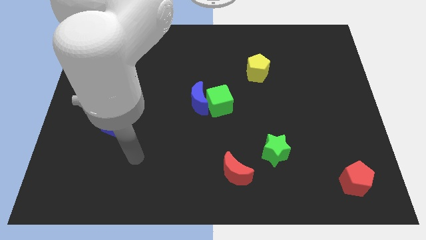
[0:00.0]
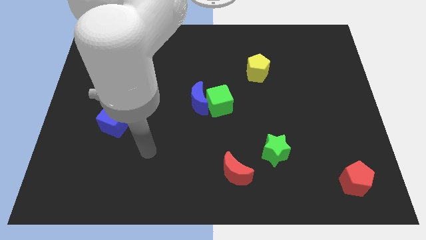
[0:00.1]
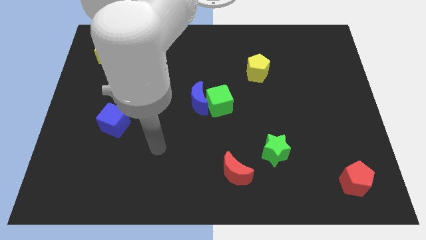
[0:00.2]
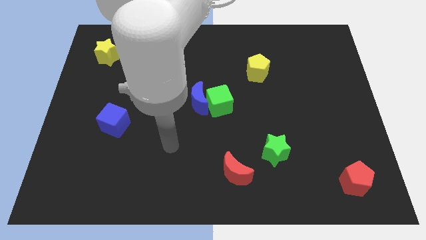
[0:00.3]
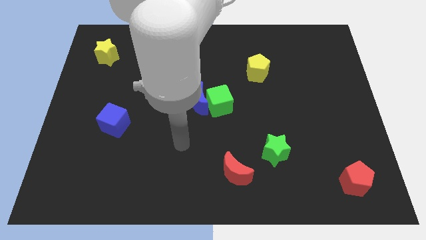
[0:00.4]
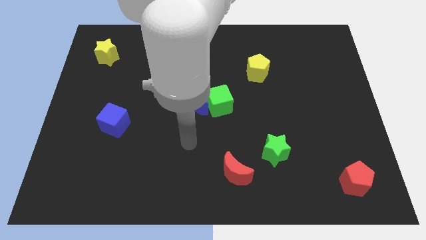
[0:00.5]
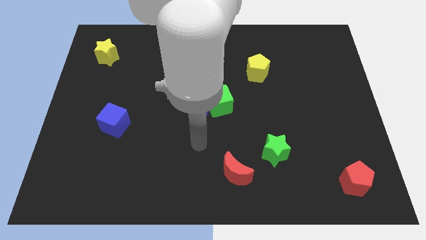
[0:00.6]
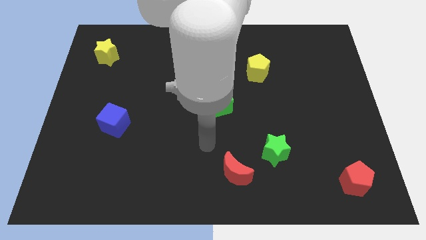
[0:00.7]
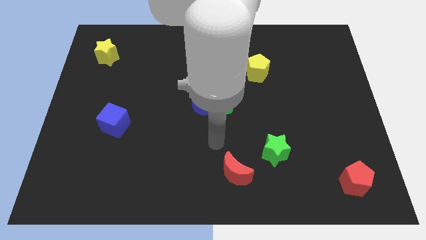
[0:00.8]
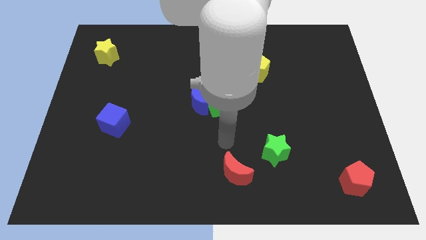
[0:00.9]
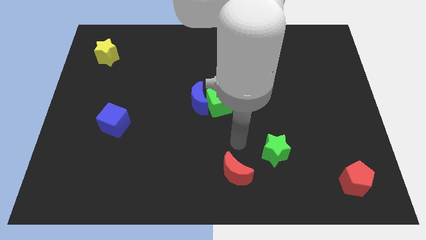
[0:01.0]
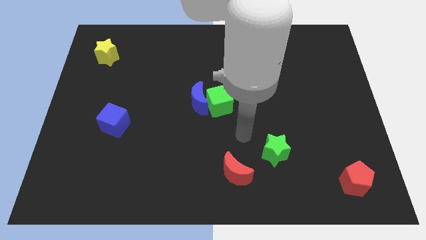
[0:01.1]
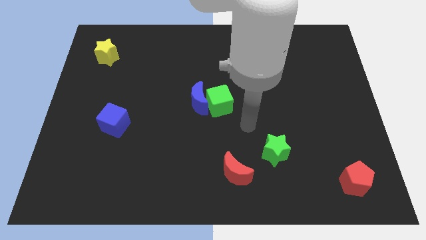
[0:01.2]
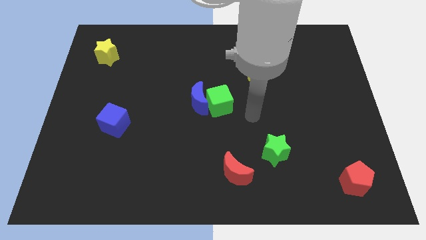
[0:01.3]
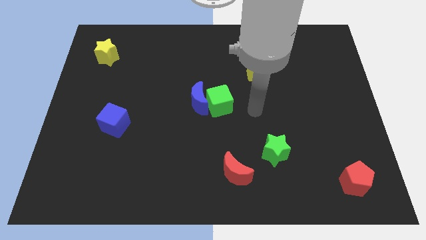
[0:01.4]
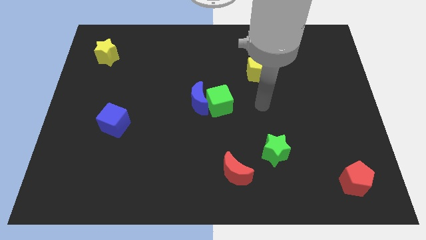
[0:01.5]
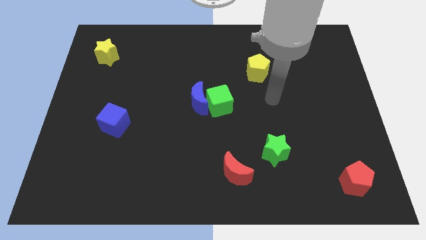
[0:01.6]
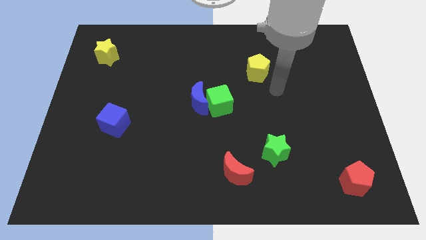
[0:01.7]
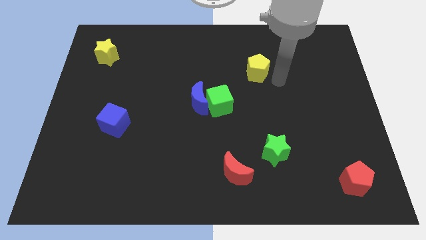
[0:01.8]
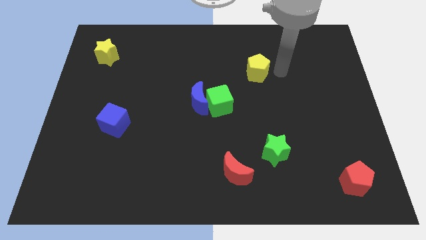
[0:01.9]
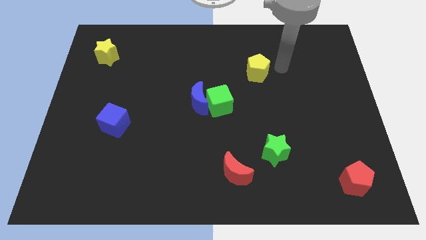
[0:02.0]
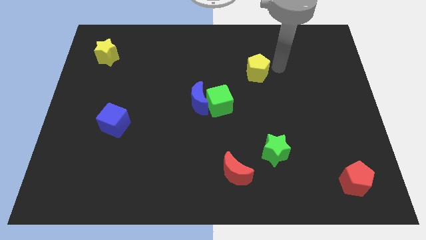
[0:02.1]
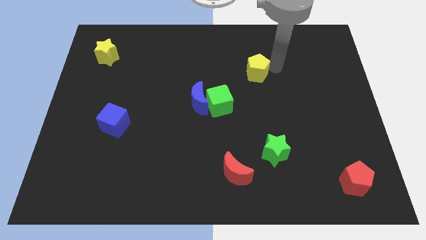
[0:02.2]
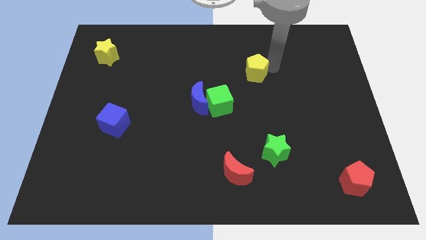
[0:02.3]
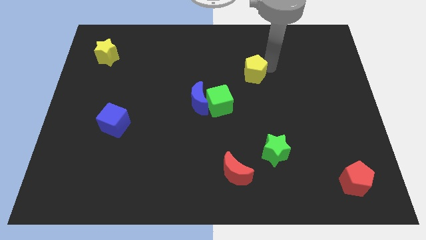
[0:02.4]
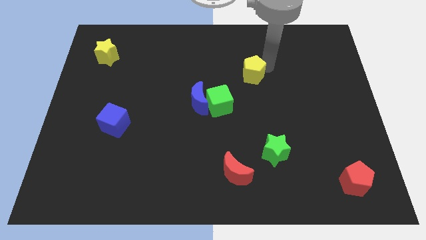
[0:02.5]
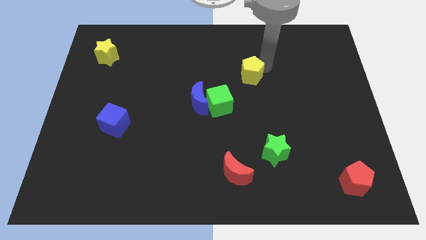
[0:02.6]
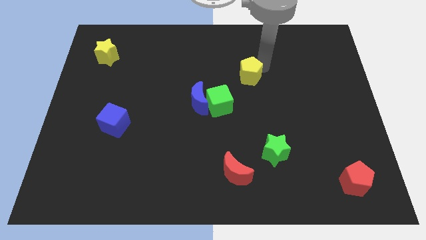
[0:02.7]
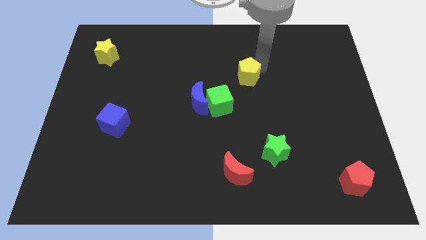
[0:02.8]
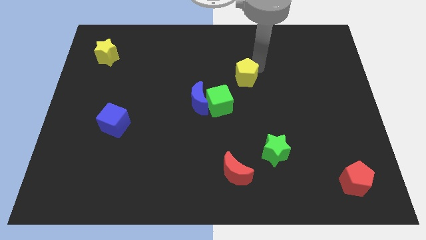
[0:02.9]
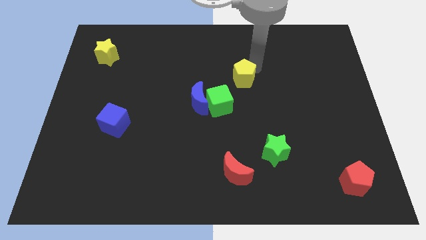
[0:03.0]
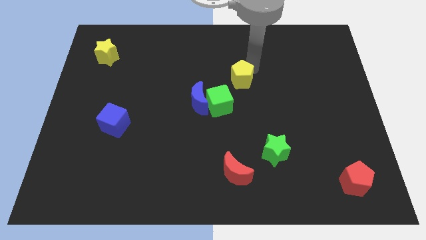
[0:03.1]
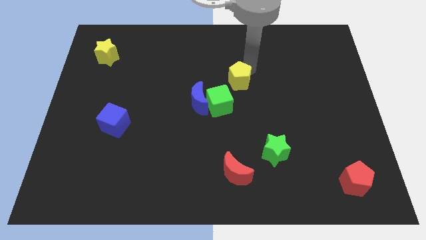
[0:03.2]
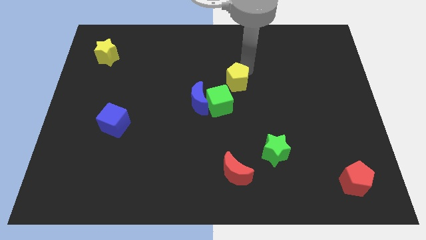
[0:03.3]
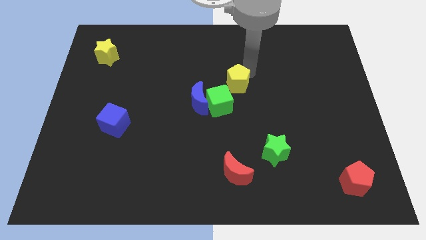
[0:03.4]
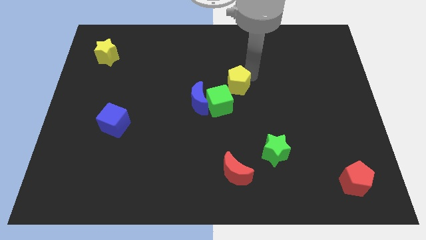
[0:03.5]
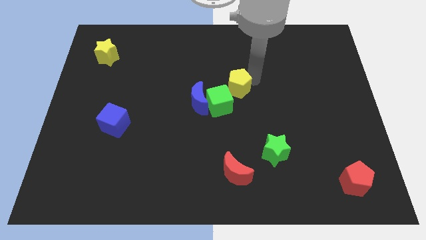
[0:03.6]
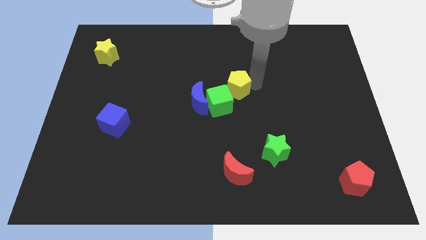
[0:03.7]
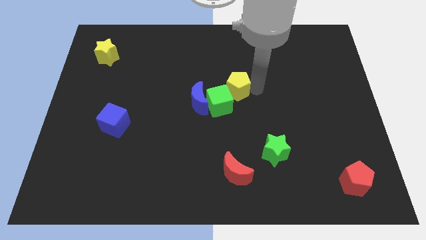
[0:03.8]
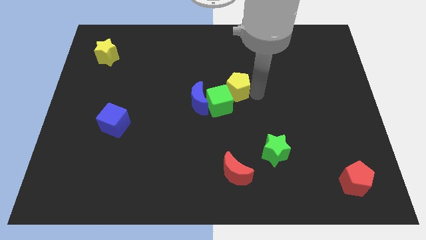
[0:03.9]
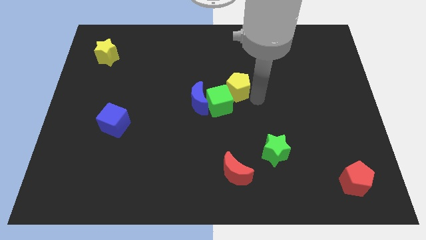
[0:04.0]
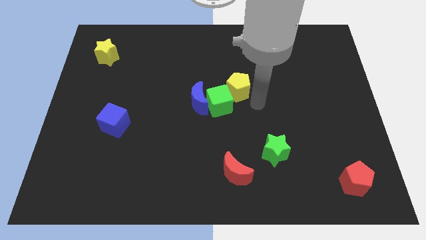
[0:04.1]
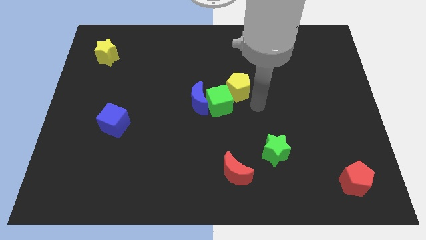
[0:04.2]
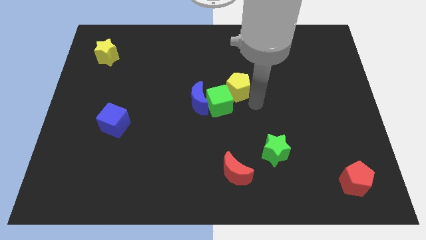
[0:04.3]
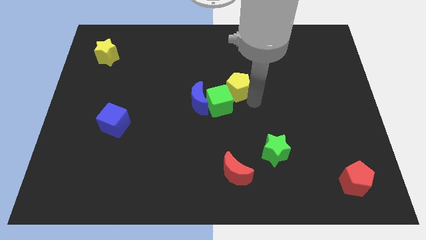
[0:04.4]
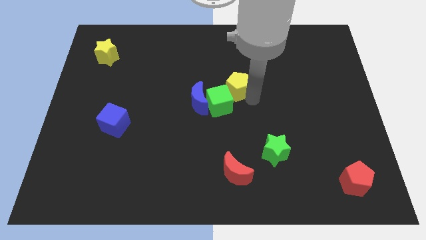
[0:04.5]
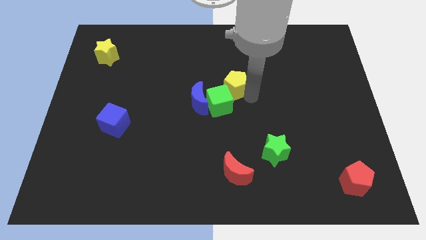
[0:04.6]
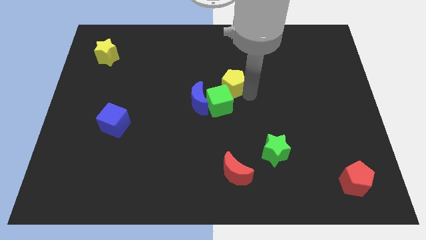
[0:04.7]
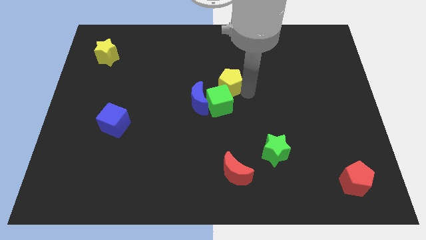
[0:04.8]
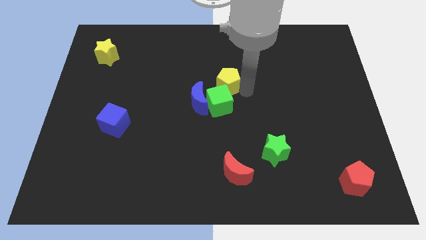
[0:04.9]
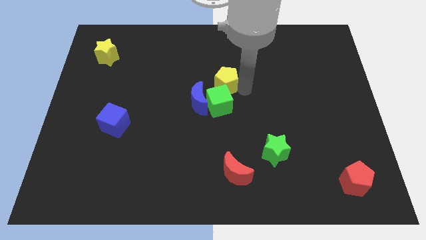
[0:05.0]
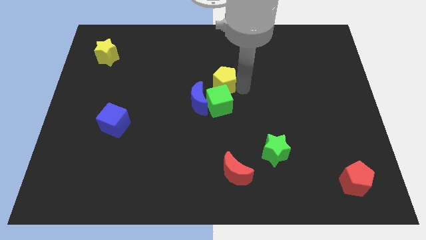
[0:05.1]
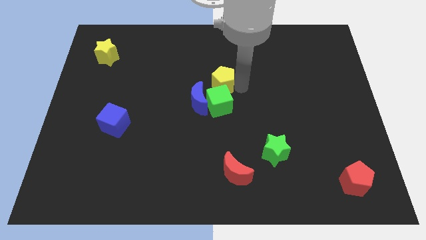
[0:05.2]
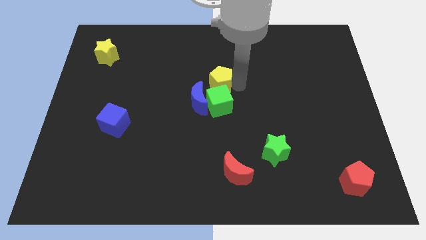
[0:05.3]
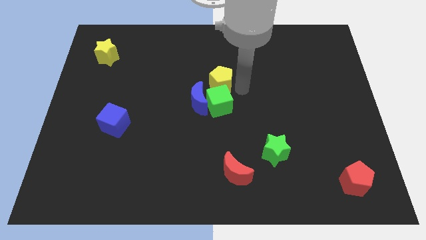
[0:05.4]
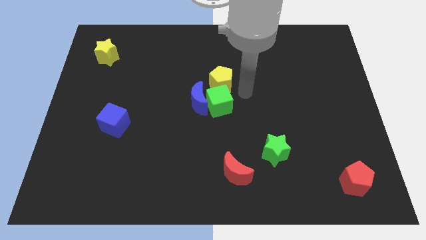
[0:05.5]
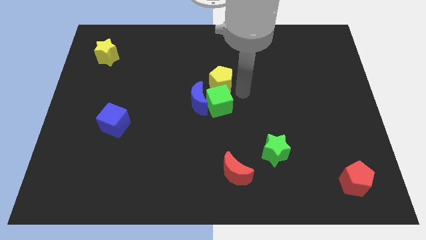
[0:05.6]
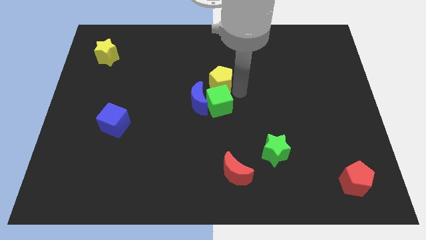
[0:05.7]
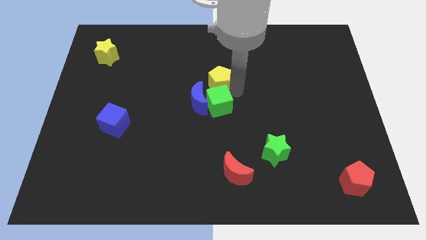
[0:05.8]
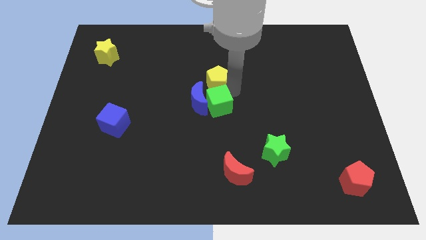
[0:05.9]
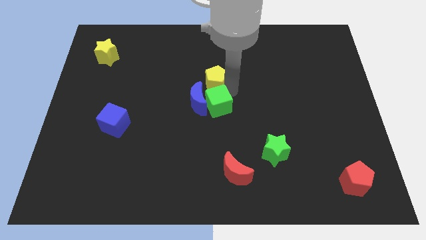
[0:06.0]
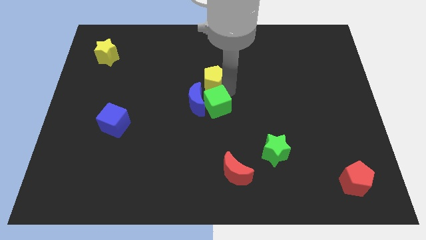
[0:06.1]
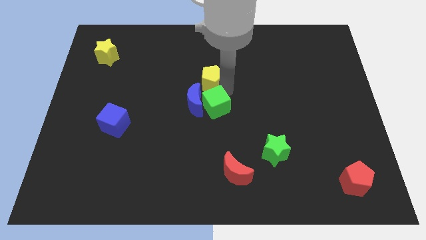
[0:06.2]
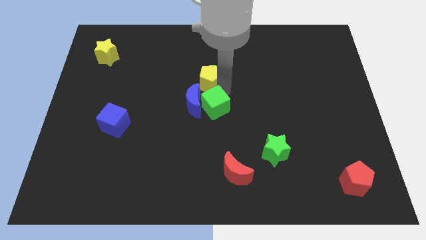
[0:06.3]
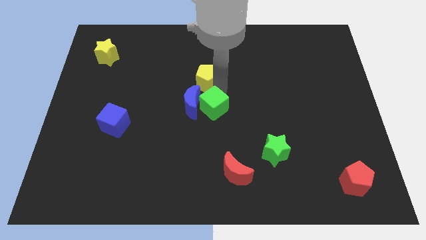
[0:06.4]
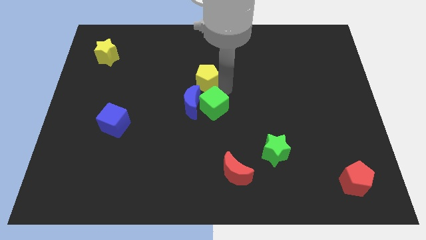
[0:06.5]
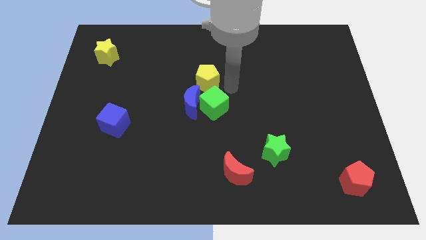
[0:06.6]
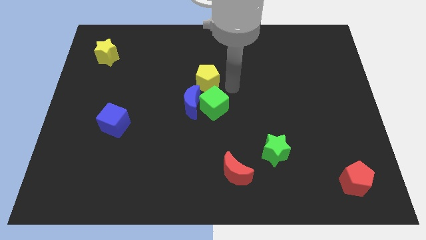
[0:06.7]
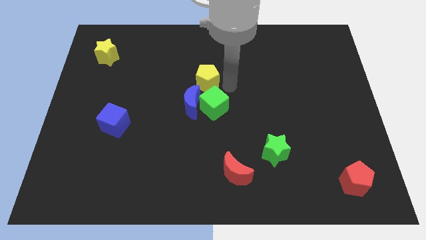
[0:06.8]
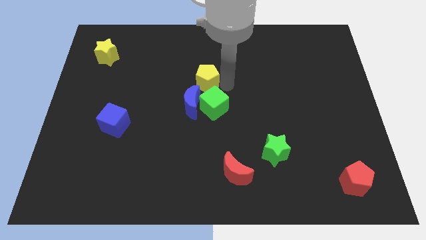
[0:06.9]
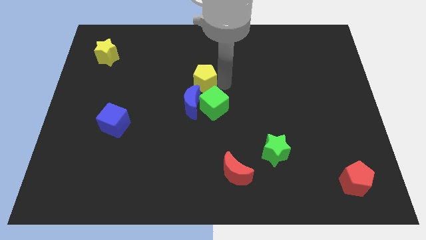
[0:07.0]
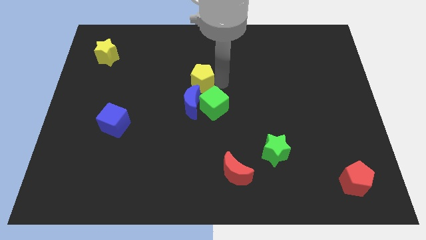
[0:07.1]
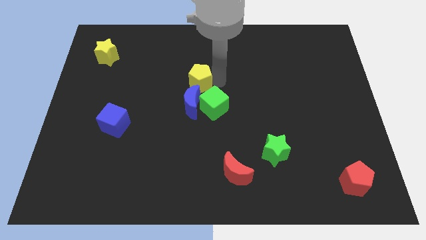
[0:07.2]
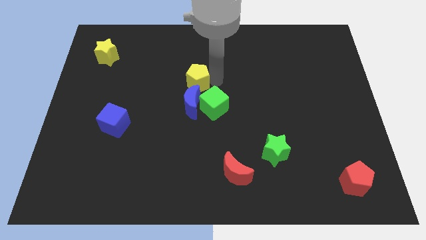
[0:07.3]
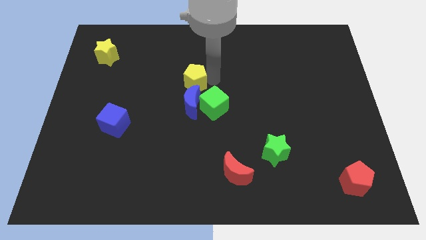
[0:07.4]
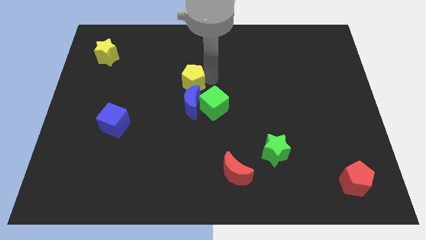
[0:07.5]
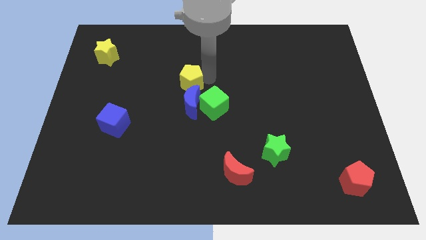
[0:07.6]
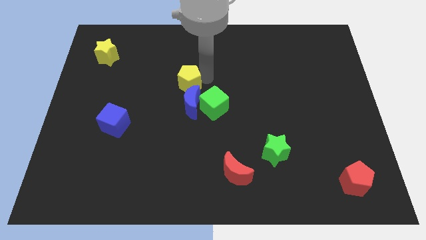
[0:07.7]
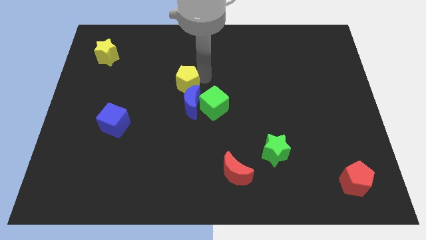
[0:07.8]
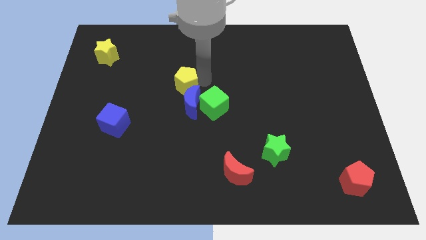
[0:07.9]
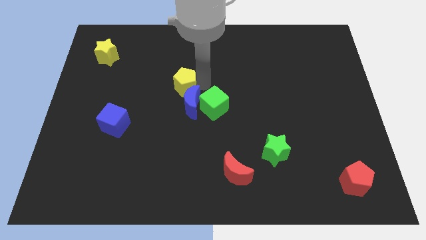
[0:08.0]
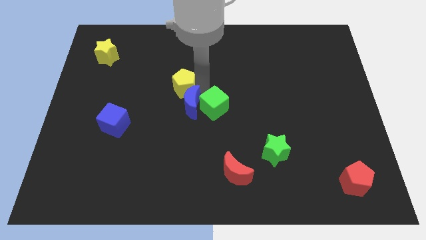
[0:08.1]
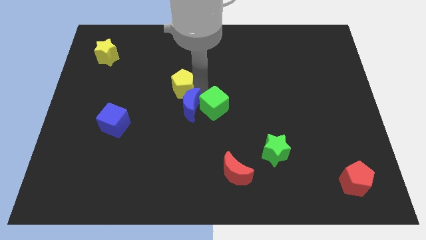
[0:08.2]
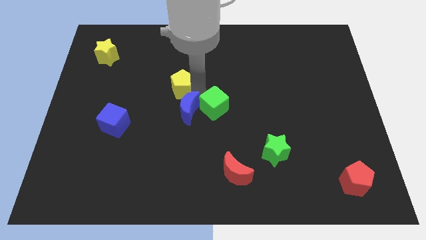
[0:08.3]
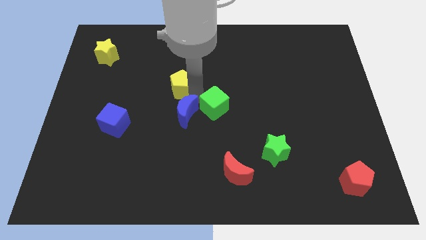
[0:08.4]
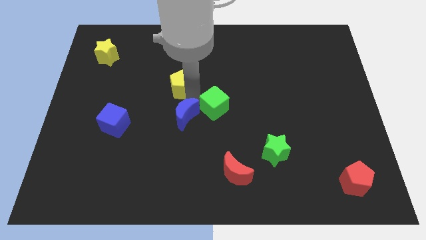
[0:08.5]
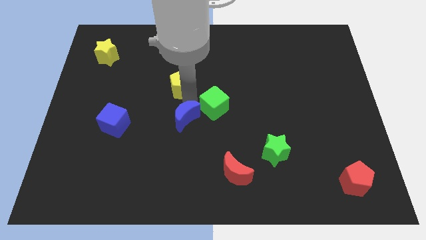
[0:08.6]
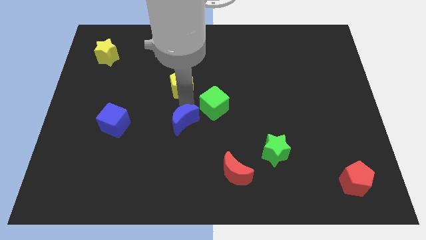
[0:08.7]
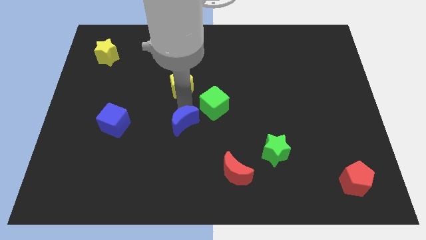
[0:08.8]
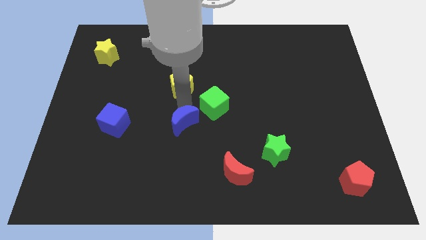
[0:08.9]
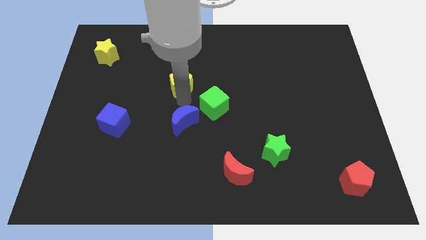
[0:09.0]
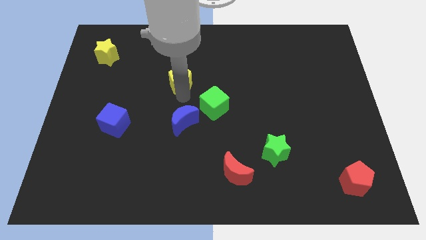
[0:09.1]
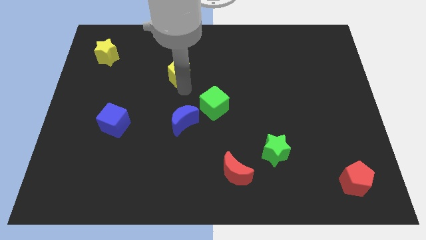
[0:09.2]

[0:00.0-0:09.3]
slide the yellow pentagon left
